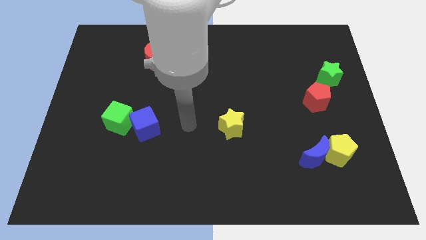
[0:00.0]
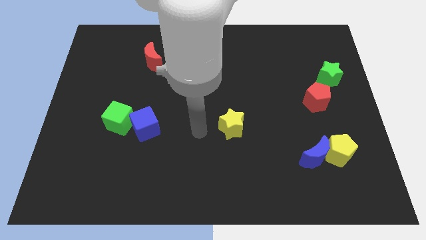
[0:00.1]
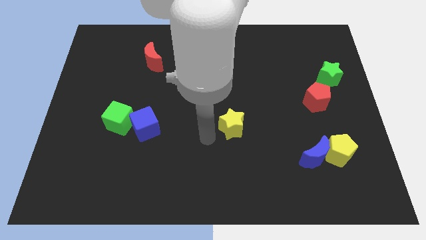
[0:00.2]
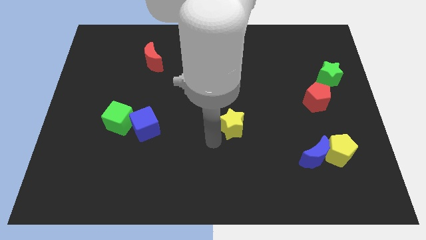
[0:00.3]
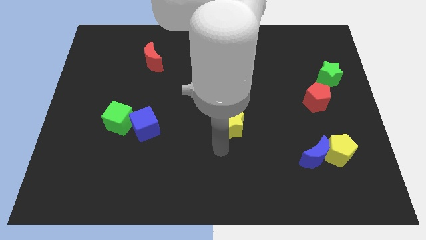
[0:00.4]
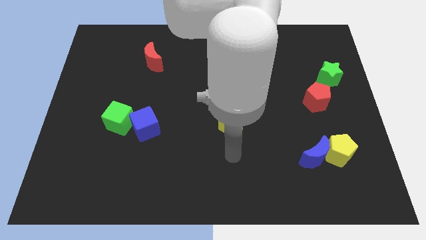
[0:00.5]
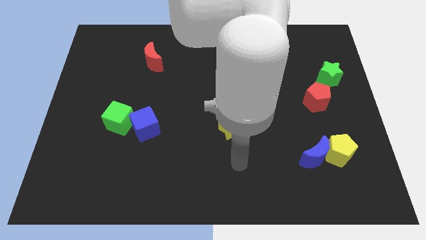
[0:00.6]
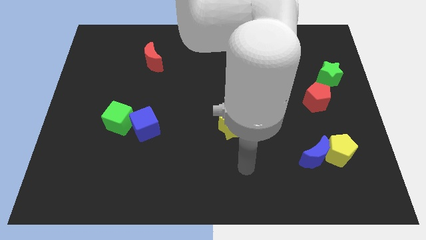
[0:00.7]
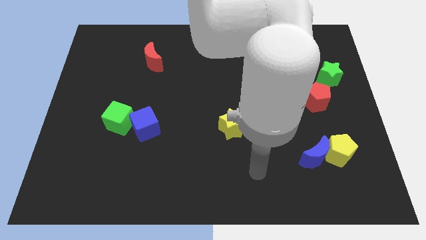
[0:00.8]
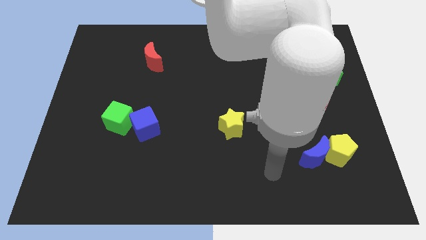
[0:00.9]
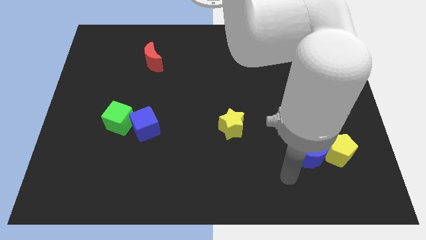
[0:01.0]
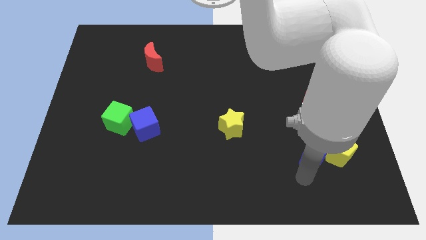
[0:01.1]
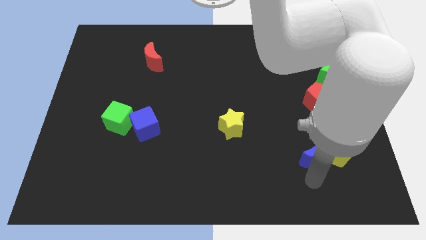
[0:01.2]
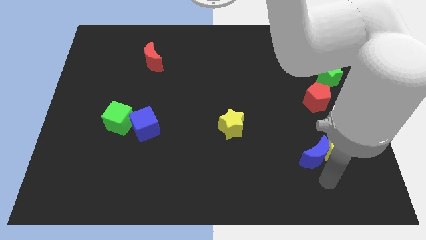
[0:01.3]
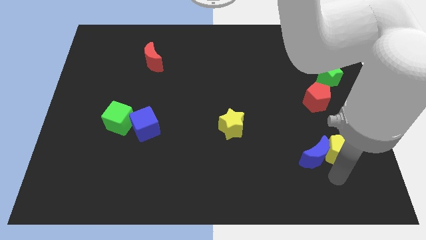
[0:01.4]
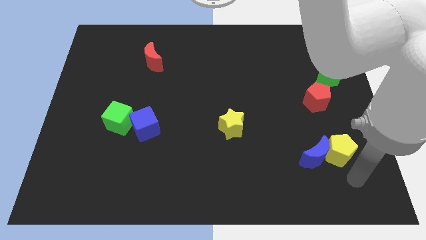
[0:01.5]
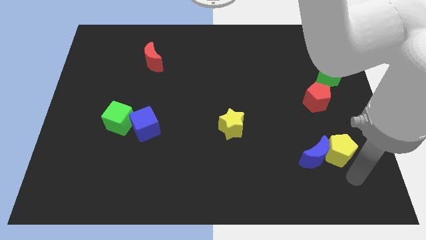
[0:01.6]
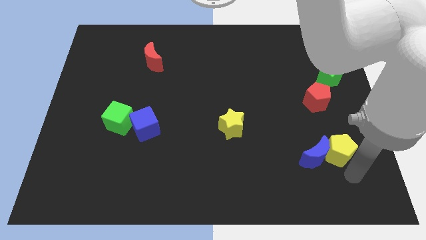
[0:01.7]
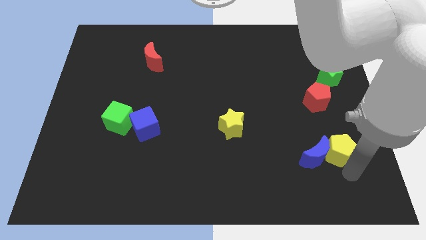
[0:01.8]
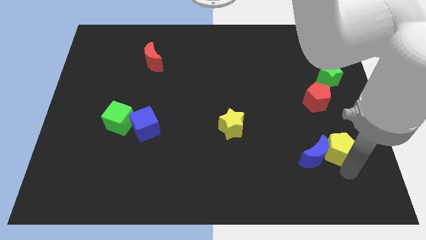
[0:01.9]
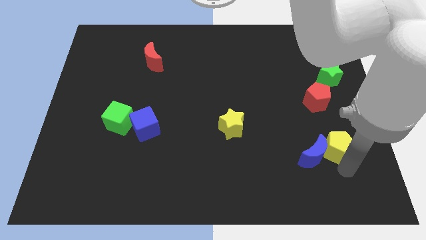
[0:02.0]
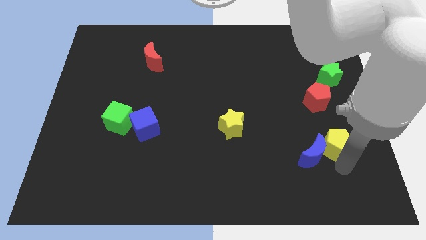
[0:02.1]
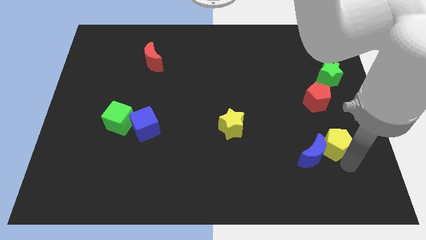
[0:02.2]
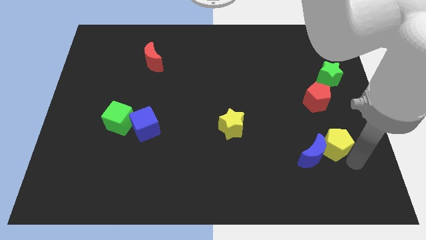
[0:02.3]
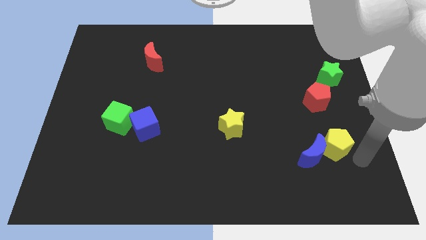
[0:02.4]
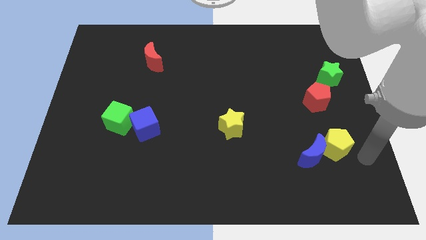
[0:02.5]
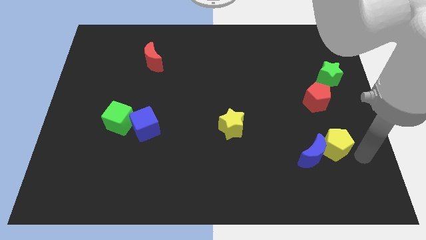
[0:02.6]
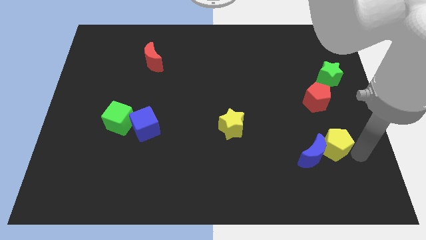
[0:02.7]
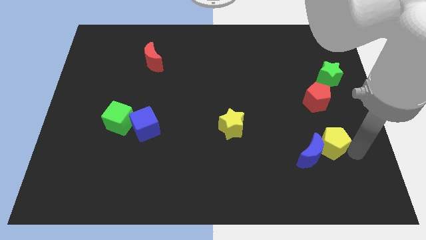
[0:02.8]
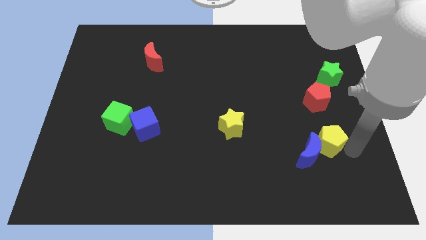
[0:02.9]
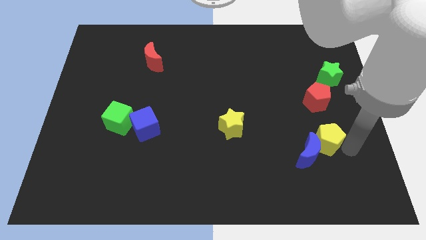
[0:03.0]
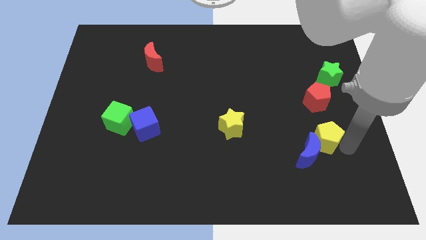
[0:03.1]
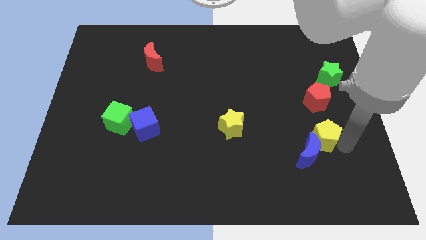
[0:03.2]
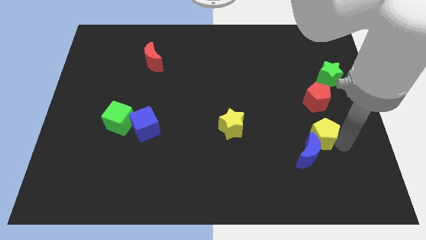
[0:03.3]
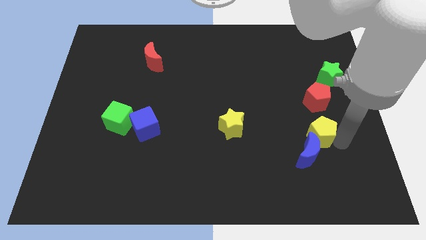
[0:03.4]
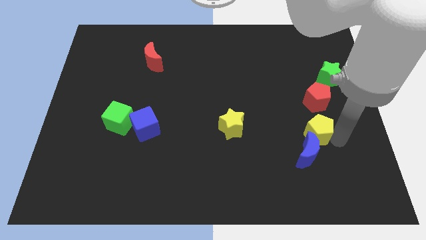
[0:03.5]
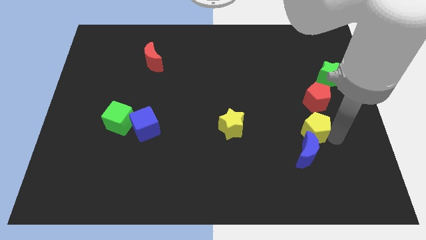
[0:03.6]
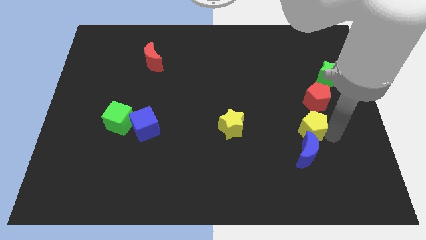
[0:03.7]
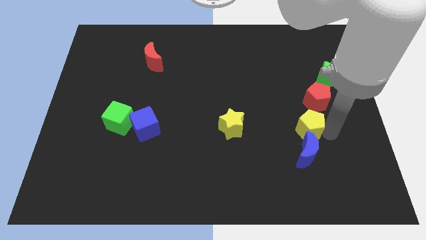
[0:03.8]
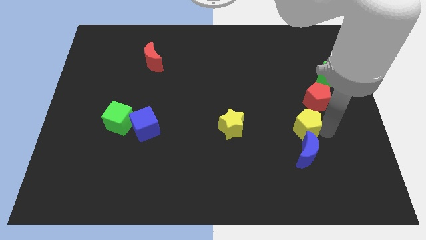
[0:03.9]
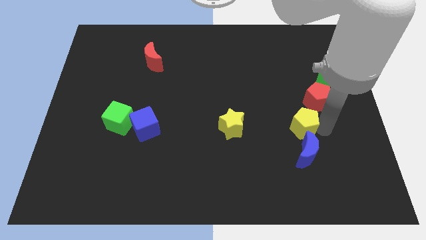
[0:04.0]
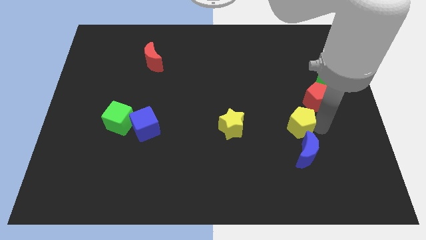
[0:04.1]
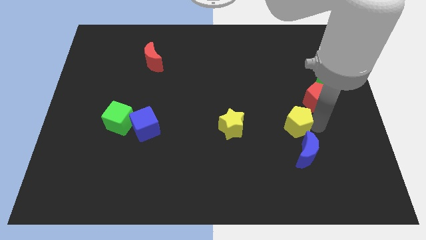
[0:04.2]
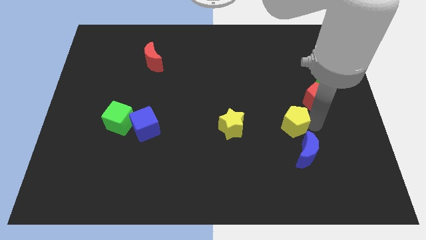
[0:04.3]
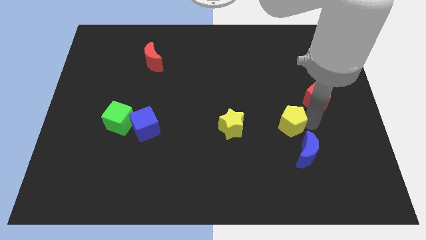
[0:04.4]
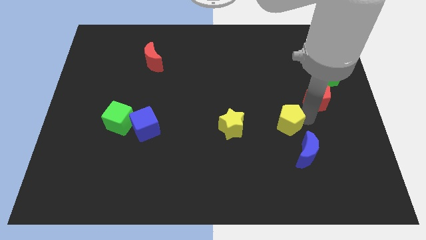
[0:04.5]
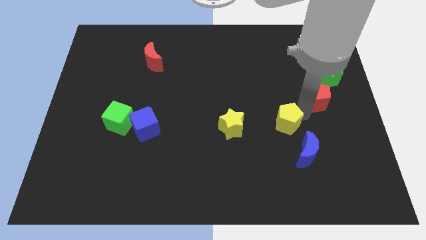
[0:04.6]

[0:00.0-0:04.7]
slightly push the yellow pentagon to the left

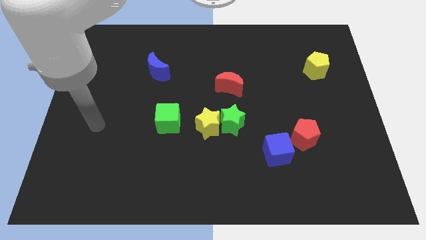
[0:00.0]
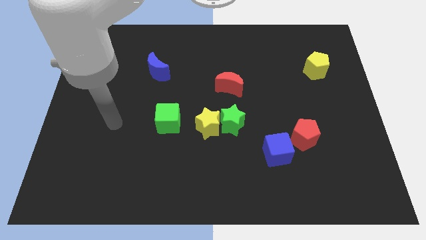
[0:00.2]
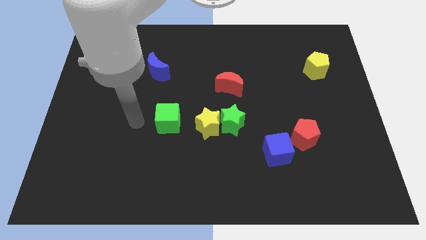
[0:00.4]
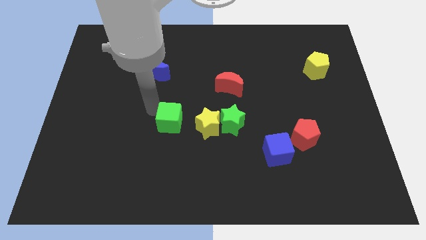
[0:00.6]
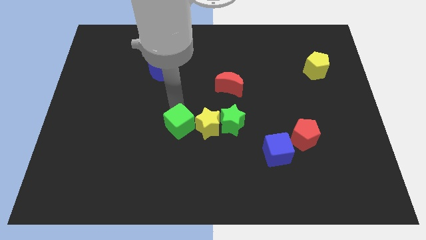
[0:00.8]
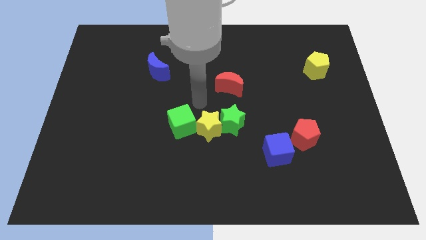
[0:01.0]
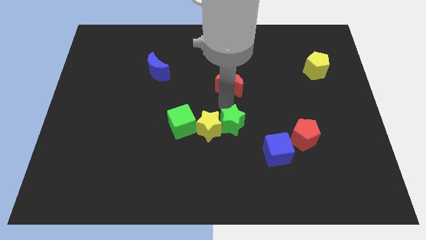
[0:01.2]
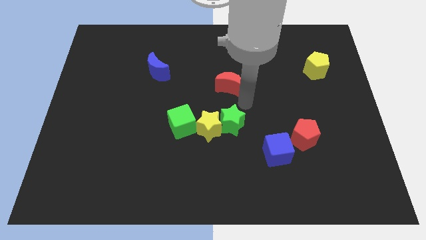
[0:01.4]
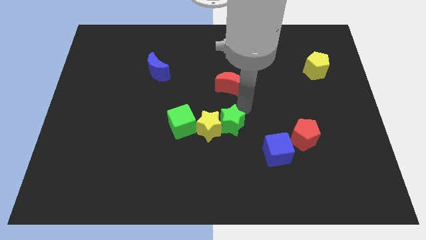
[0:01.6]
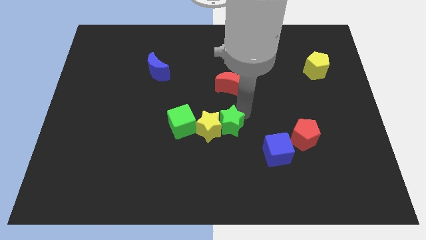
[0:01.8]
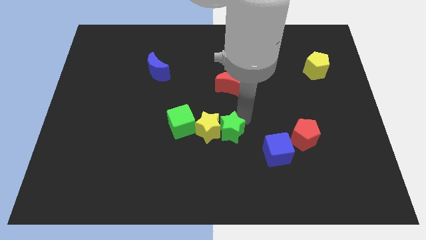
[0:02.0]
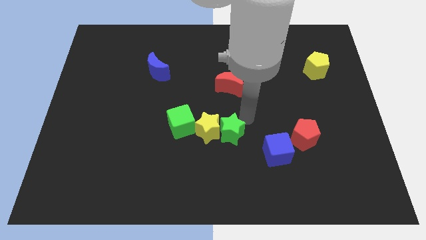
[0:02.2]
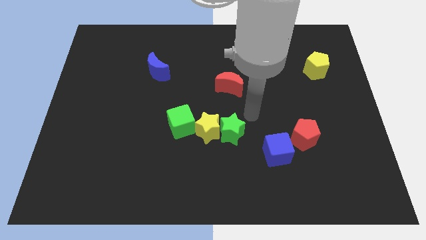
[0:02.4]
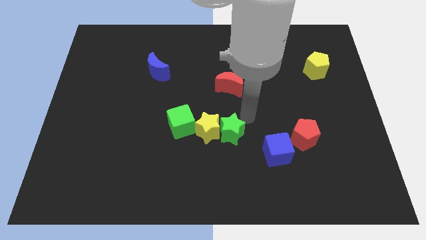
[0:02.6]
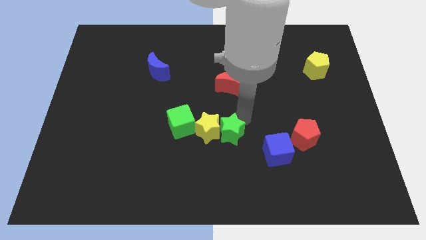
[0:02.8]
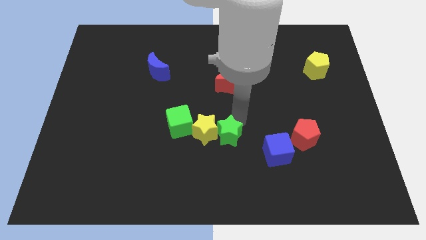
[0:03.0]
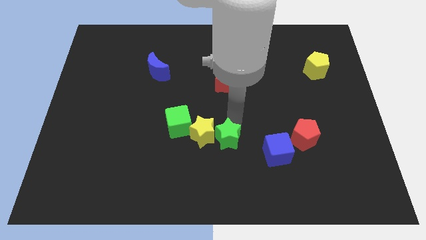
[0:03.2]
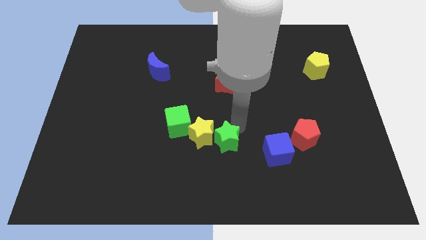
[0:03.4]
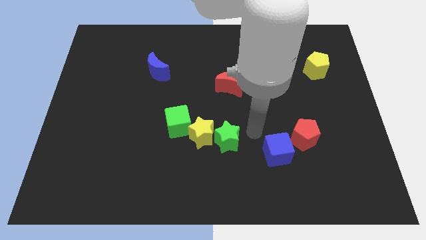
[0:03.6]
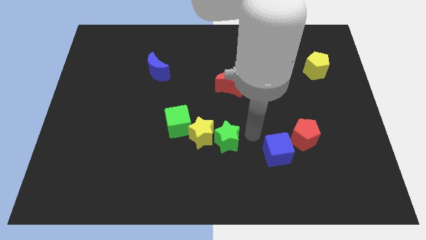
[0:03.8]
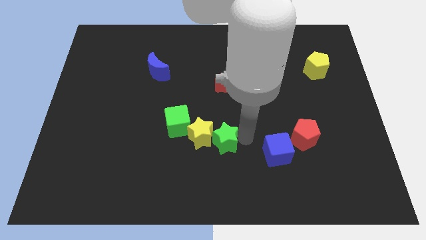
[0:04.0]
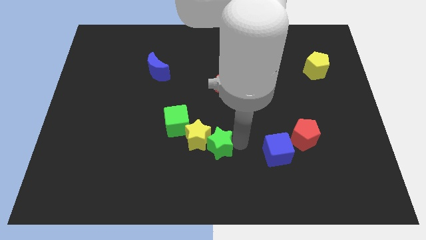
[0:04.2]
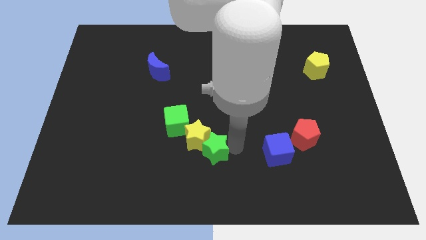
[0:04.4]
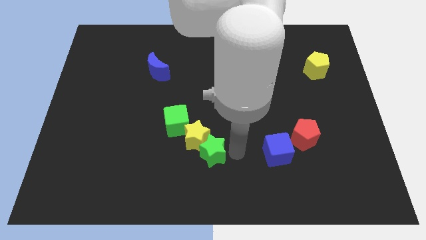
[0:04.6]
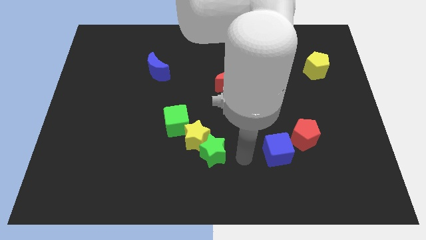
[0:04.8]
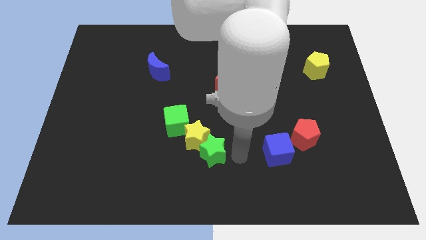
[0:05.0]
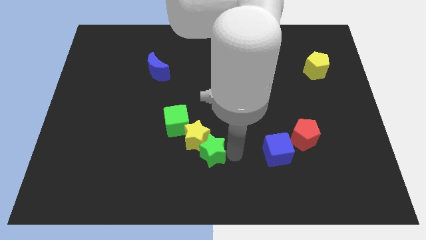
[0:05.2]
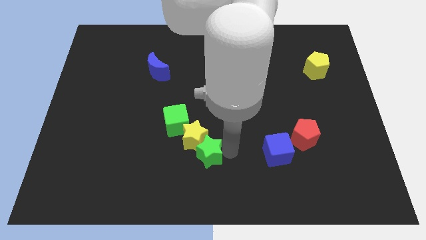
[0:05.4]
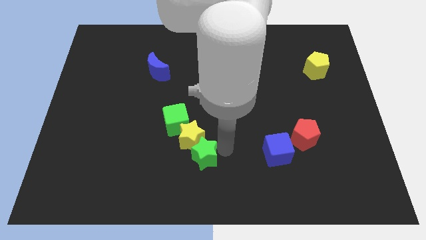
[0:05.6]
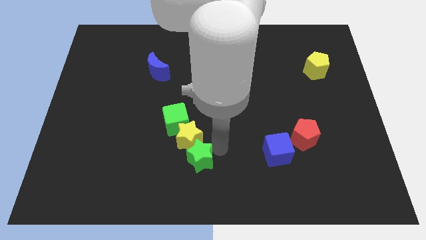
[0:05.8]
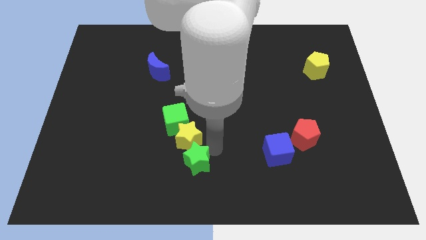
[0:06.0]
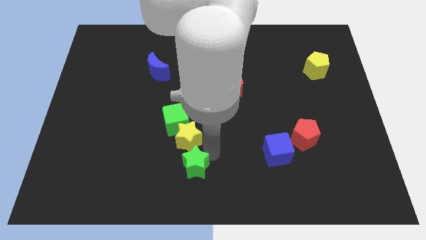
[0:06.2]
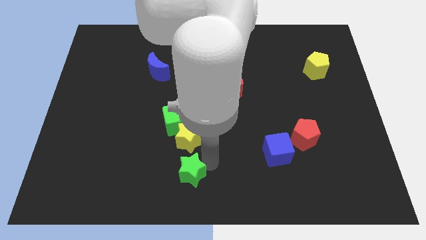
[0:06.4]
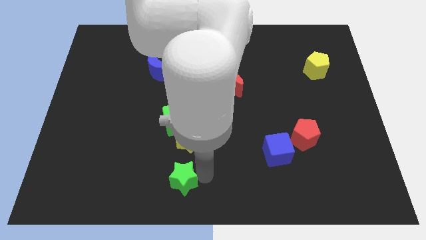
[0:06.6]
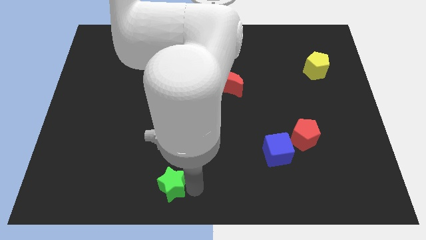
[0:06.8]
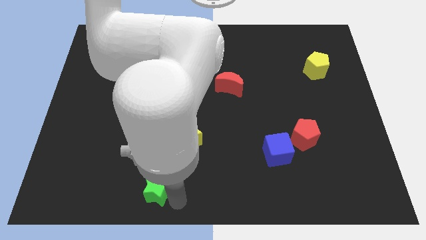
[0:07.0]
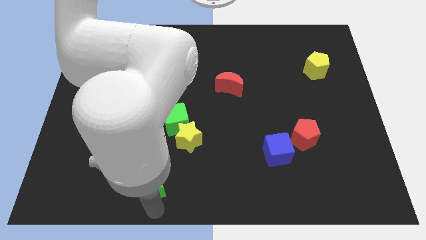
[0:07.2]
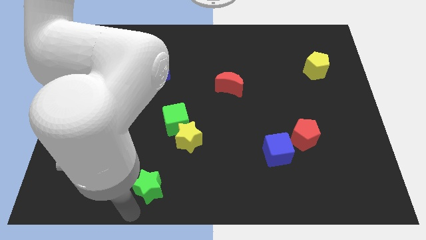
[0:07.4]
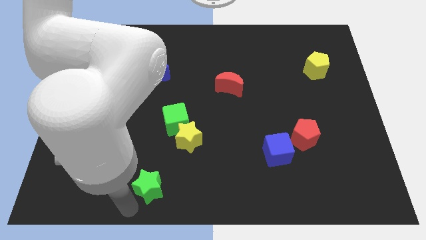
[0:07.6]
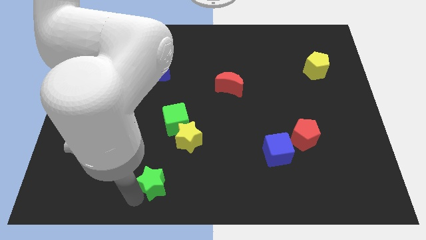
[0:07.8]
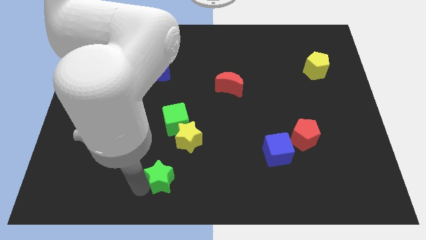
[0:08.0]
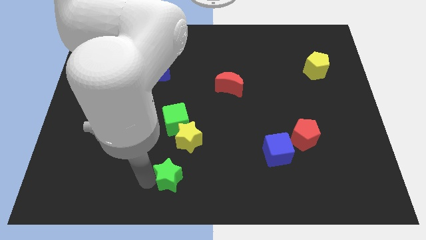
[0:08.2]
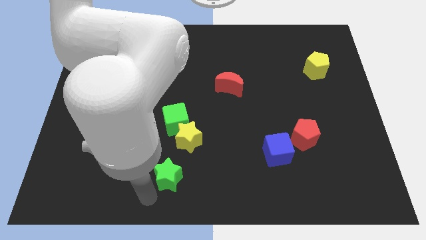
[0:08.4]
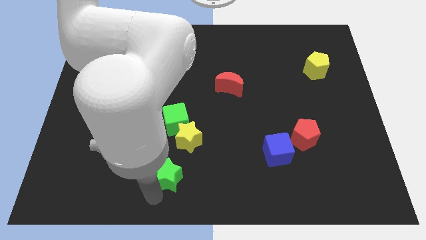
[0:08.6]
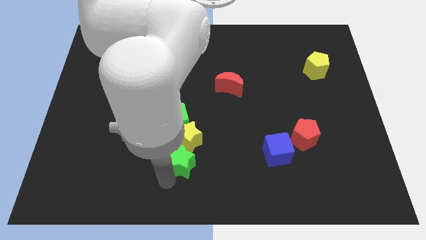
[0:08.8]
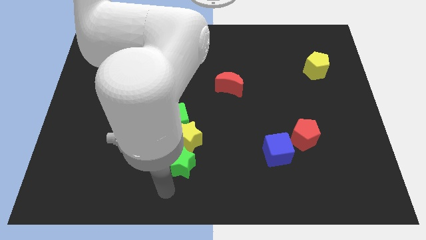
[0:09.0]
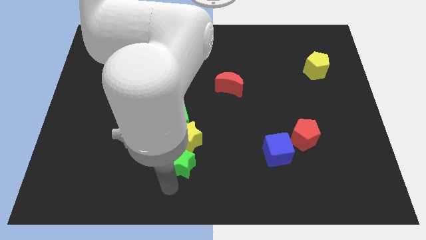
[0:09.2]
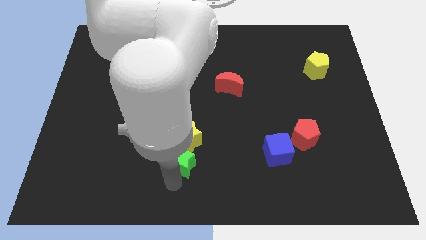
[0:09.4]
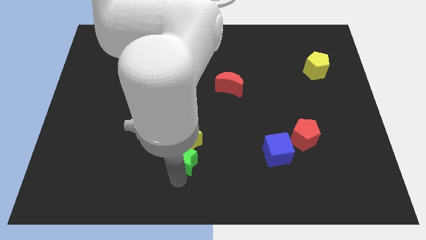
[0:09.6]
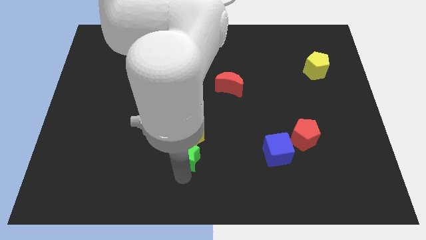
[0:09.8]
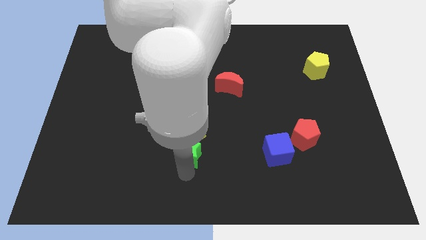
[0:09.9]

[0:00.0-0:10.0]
slide the green star a little to the left
